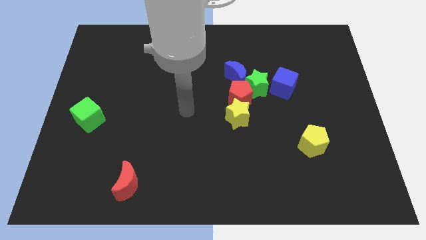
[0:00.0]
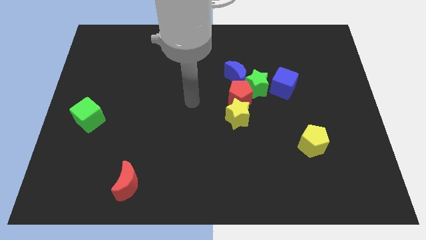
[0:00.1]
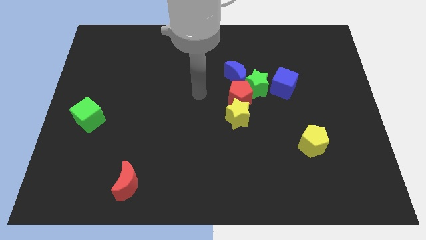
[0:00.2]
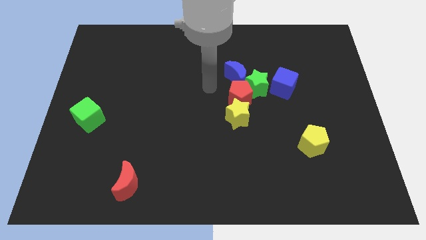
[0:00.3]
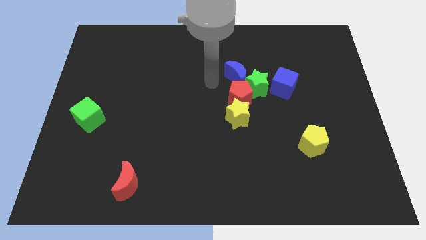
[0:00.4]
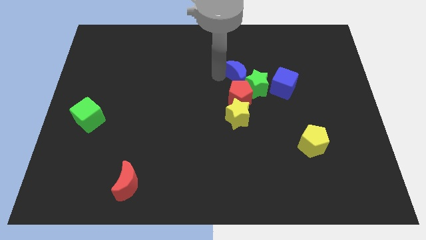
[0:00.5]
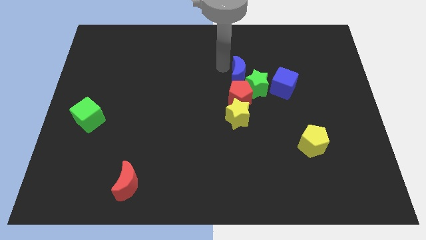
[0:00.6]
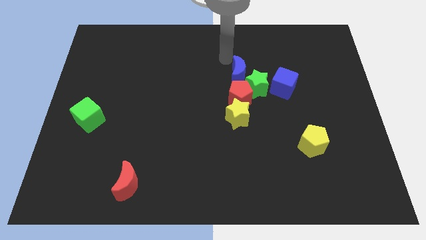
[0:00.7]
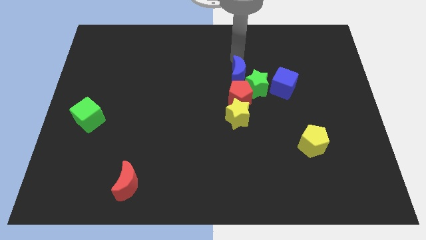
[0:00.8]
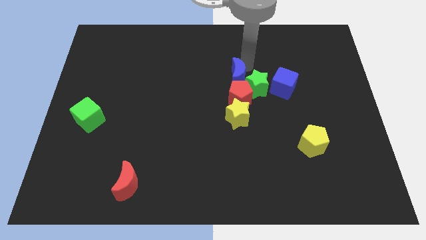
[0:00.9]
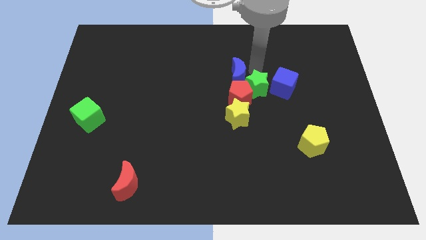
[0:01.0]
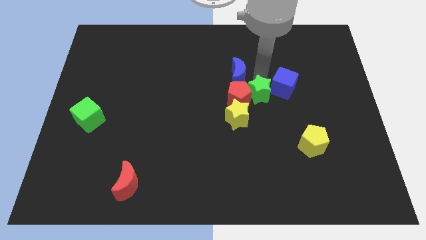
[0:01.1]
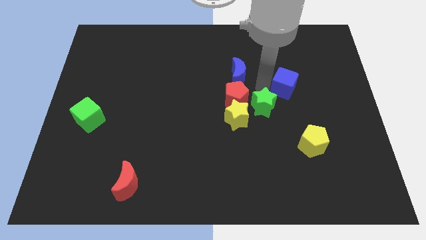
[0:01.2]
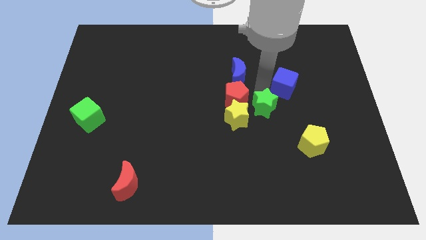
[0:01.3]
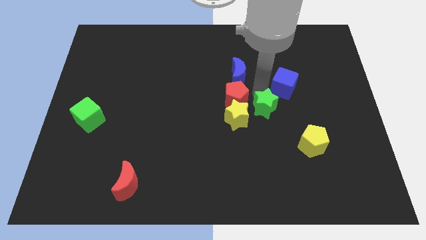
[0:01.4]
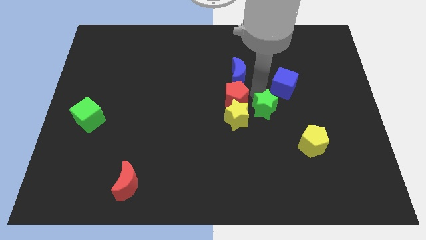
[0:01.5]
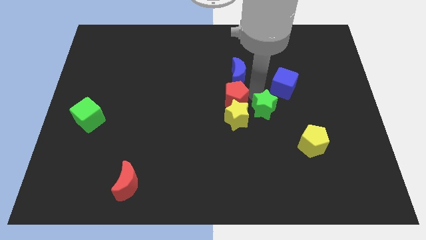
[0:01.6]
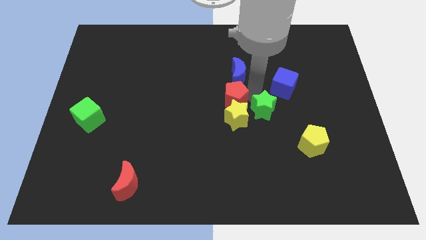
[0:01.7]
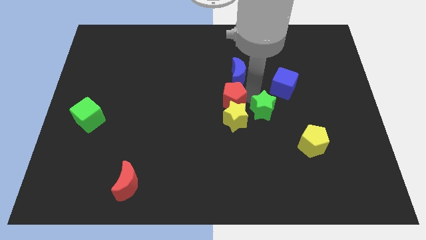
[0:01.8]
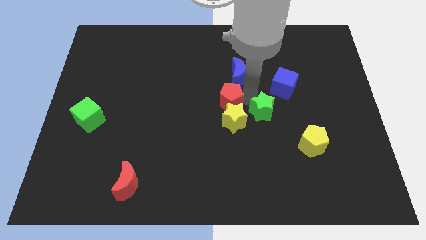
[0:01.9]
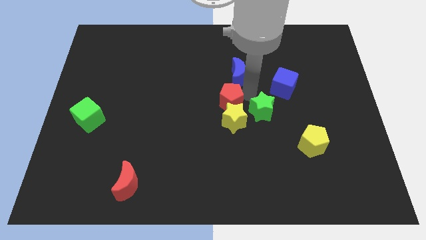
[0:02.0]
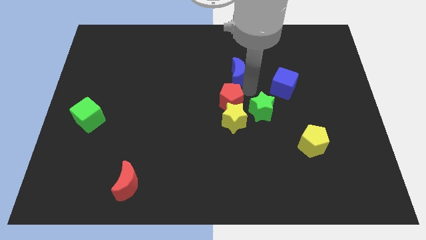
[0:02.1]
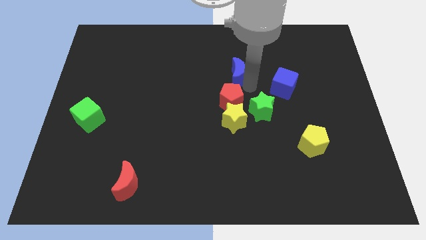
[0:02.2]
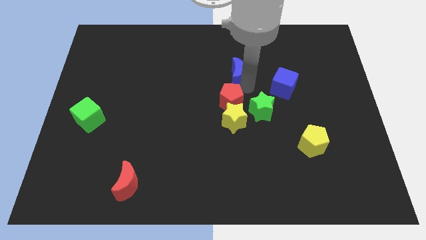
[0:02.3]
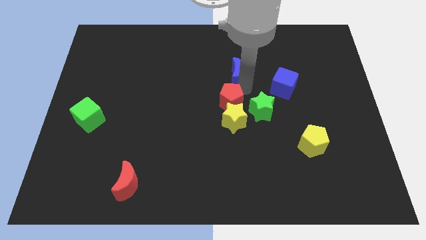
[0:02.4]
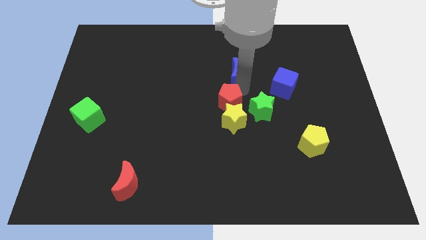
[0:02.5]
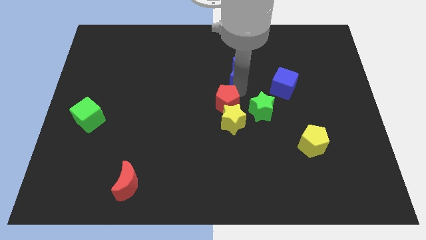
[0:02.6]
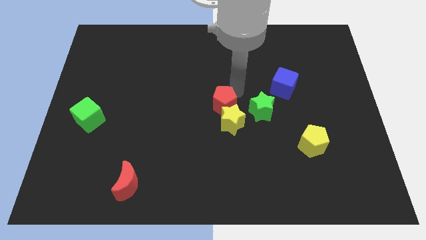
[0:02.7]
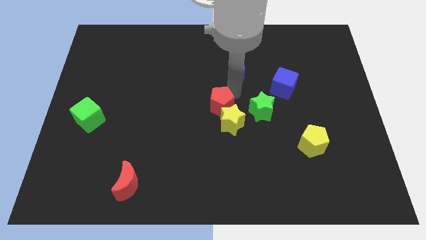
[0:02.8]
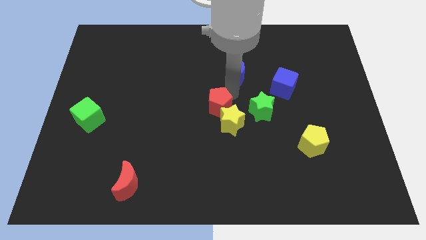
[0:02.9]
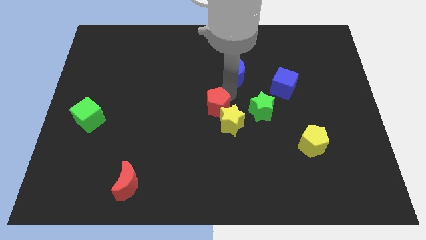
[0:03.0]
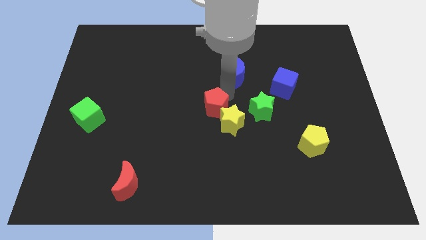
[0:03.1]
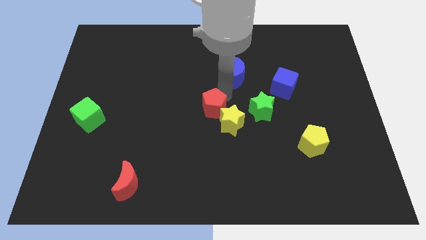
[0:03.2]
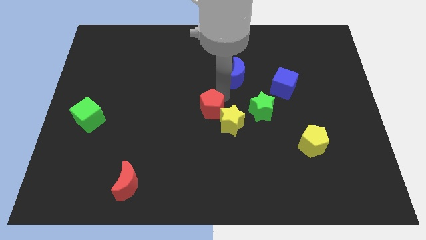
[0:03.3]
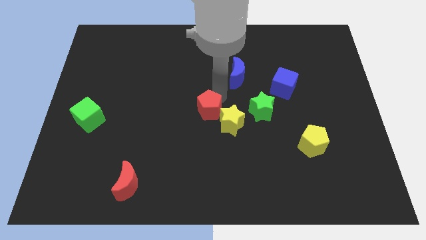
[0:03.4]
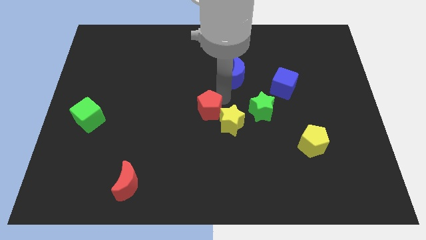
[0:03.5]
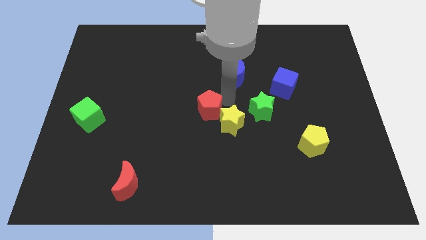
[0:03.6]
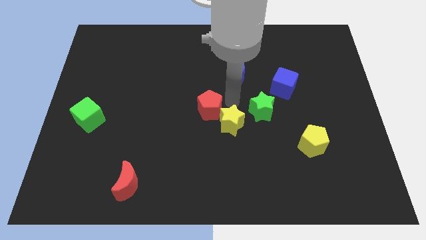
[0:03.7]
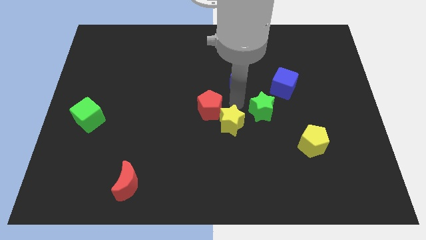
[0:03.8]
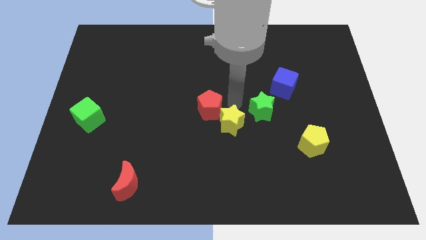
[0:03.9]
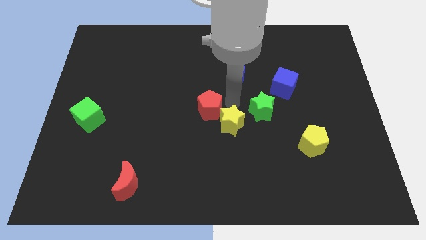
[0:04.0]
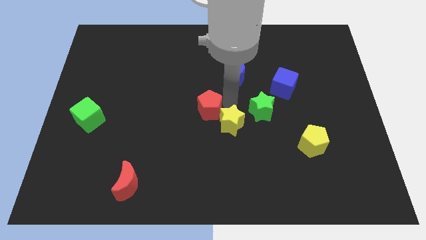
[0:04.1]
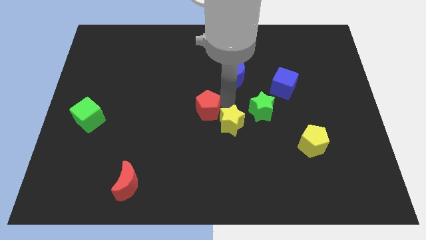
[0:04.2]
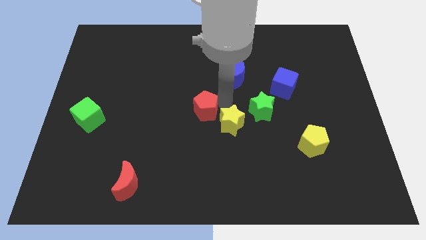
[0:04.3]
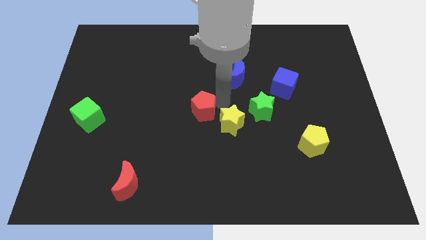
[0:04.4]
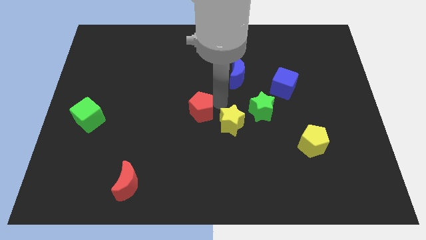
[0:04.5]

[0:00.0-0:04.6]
move the red pentagon away from the green star, yellow star, and blue moon

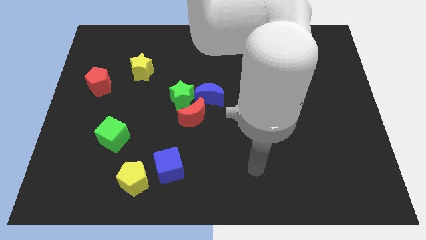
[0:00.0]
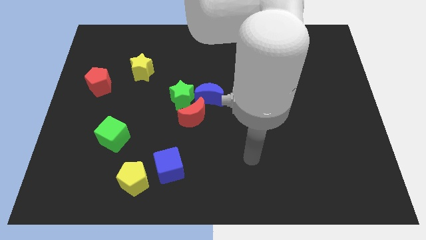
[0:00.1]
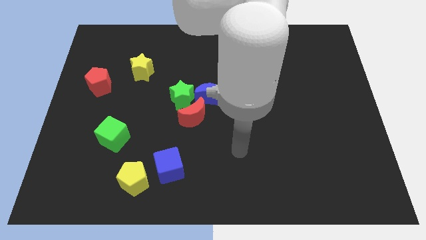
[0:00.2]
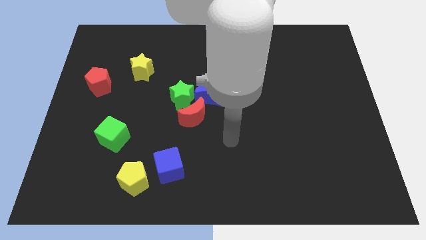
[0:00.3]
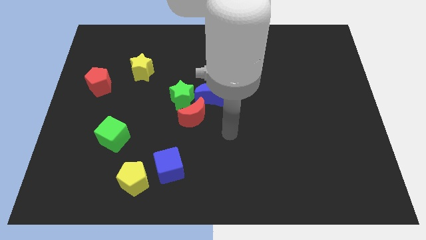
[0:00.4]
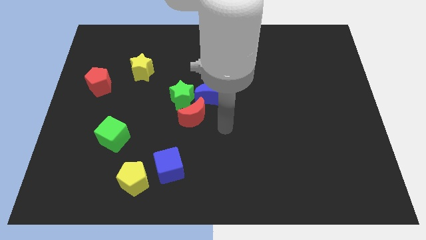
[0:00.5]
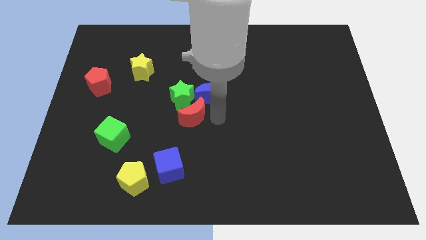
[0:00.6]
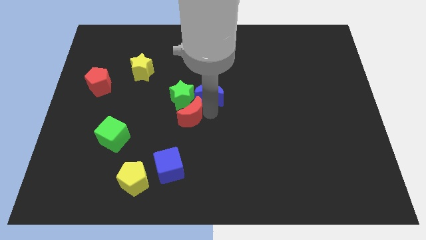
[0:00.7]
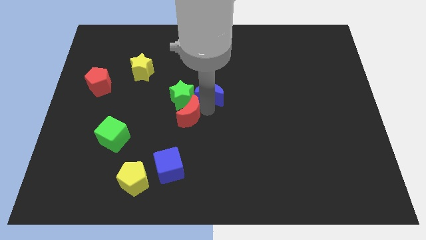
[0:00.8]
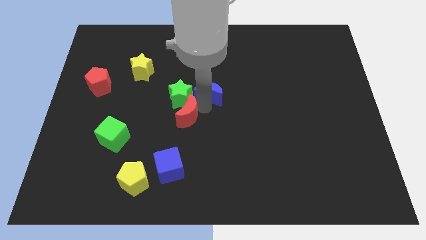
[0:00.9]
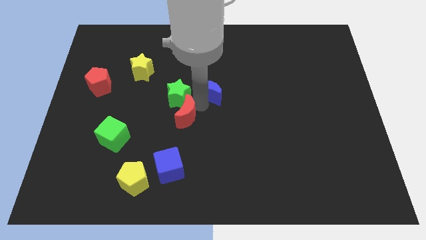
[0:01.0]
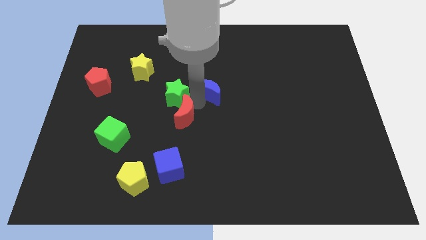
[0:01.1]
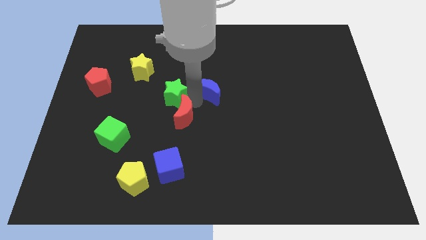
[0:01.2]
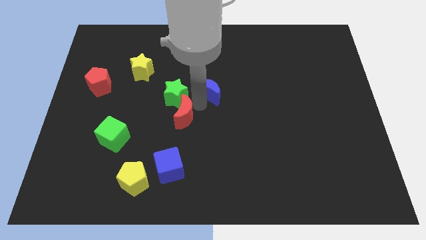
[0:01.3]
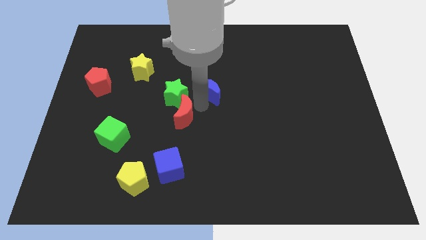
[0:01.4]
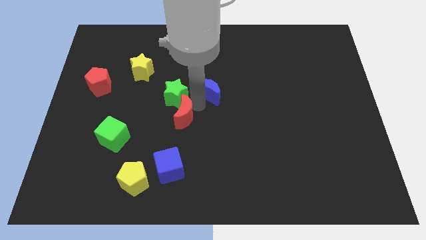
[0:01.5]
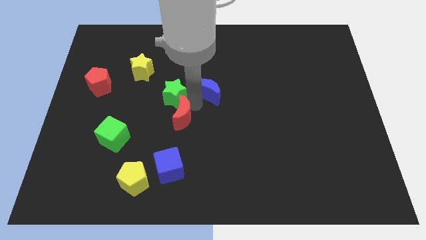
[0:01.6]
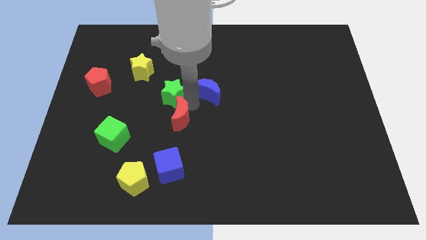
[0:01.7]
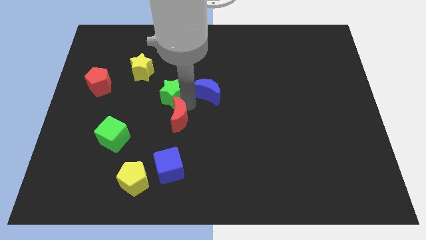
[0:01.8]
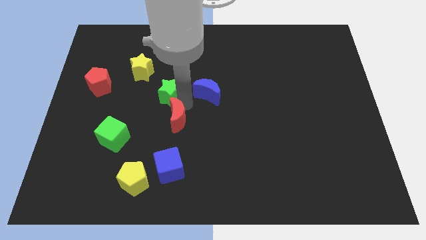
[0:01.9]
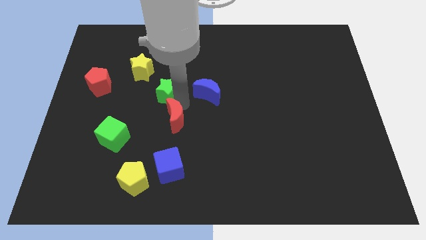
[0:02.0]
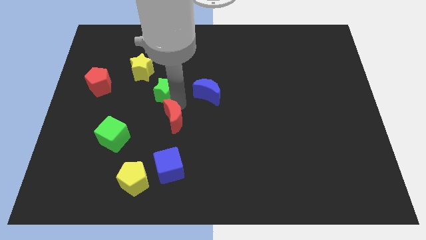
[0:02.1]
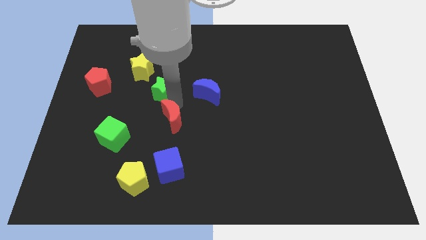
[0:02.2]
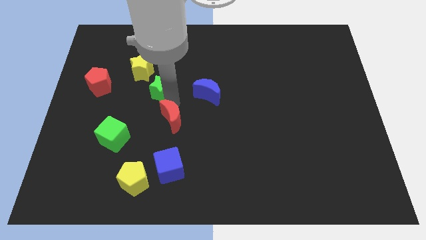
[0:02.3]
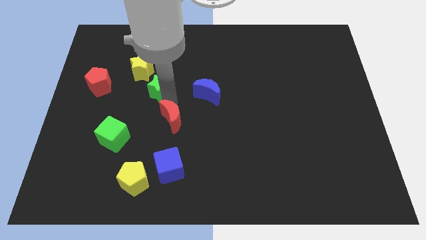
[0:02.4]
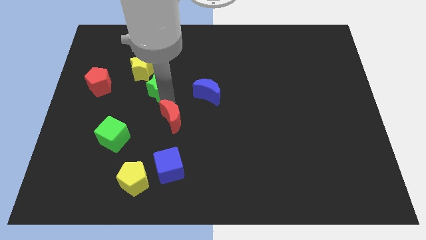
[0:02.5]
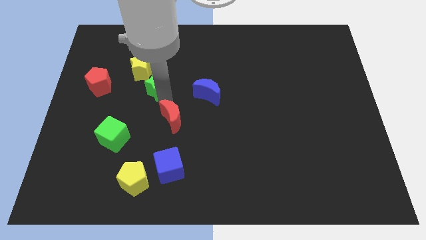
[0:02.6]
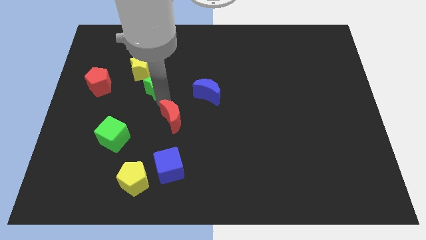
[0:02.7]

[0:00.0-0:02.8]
separate the green star from the red moon and blue moon

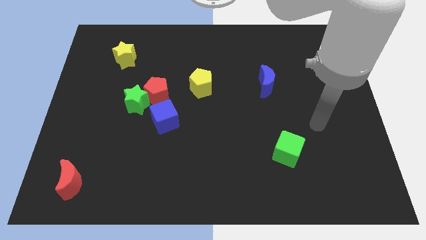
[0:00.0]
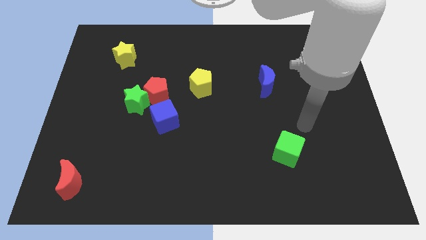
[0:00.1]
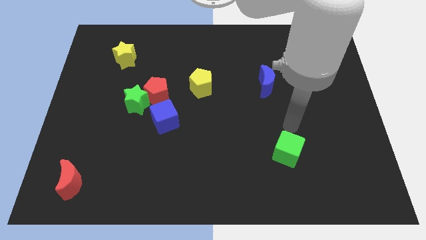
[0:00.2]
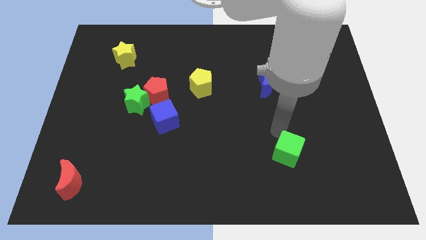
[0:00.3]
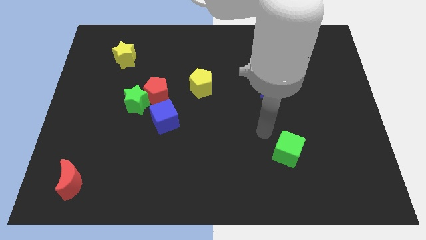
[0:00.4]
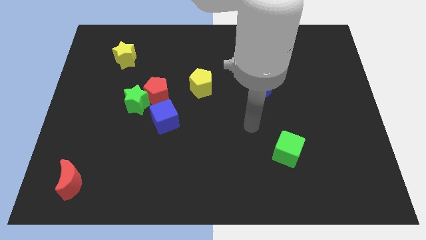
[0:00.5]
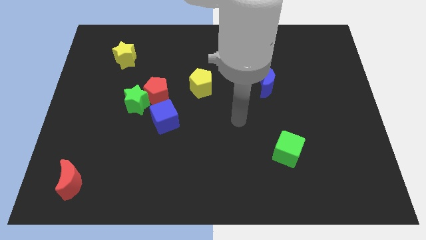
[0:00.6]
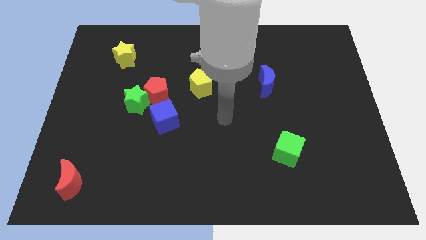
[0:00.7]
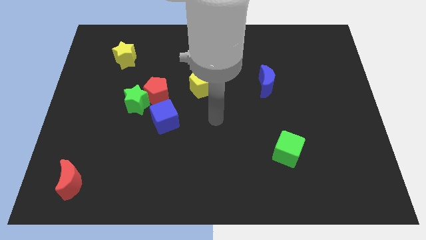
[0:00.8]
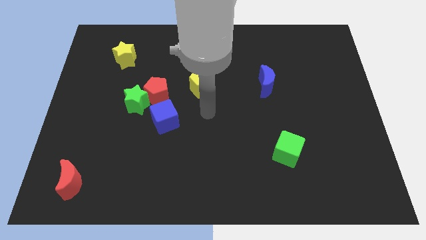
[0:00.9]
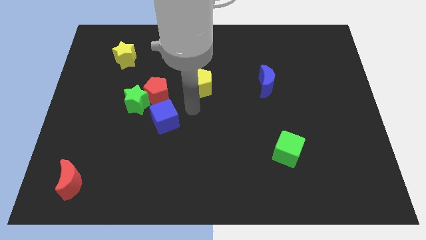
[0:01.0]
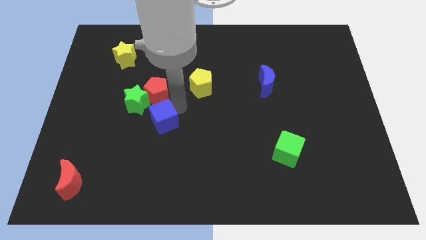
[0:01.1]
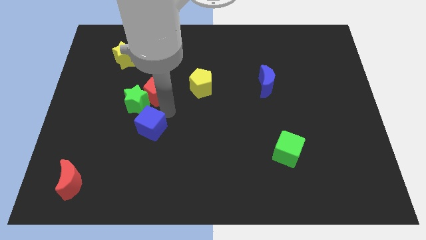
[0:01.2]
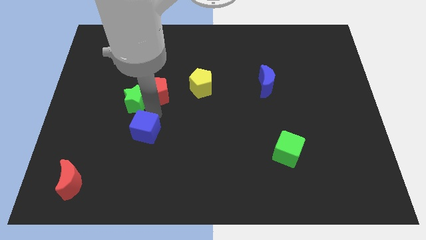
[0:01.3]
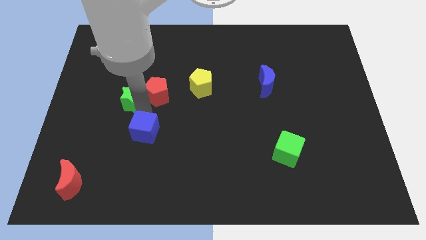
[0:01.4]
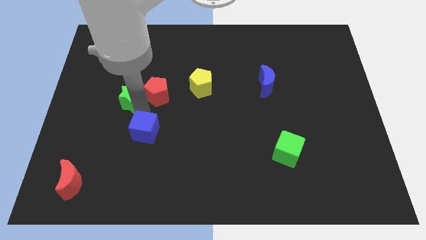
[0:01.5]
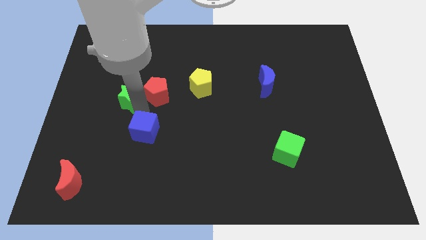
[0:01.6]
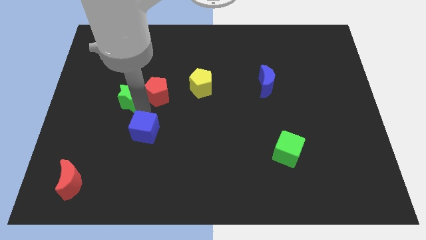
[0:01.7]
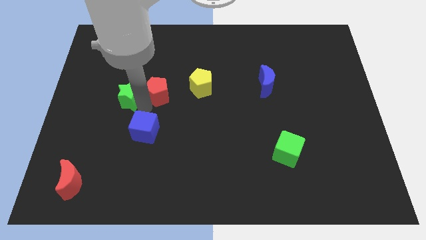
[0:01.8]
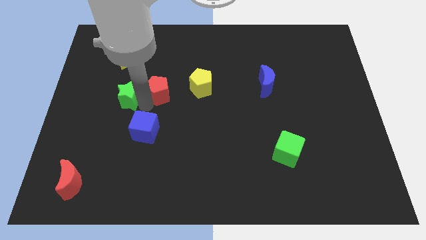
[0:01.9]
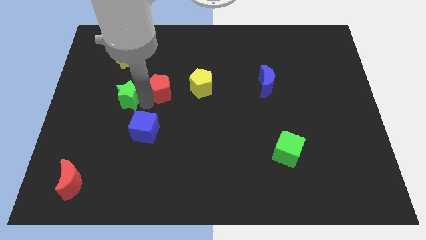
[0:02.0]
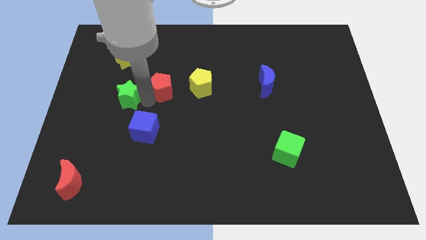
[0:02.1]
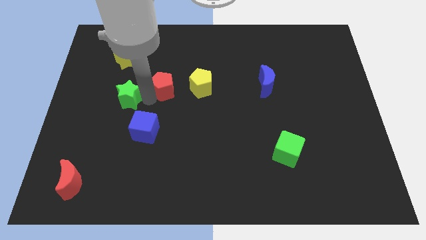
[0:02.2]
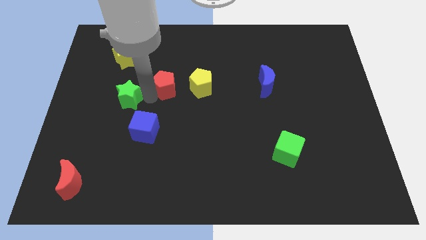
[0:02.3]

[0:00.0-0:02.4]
move the red pentagon away from the green star and blue cube
